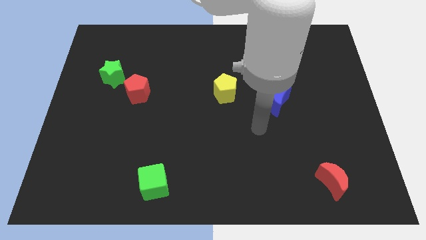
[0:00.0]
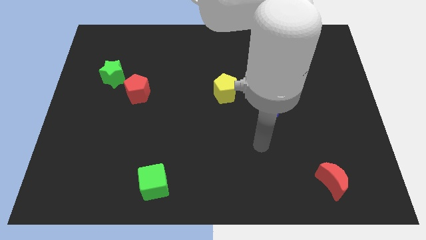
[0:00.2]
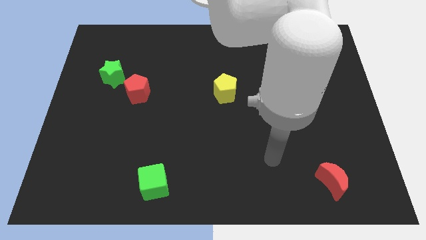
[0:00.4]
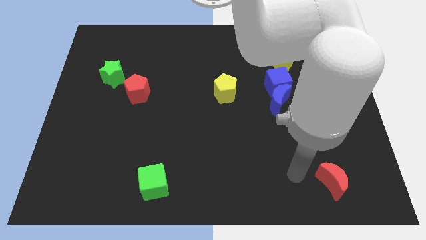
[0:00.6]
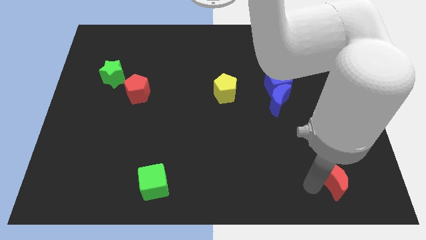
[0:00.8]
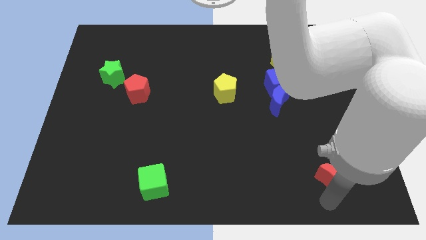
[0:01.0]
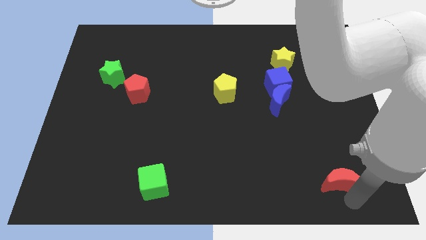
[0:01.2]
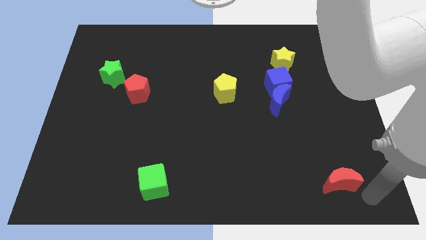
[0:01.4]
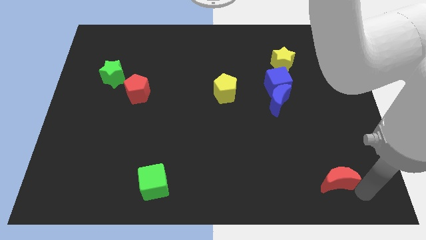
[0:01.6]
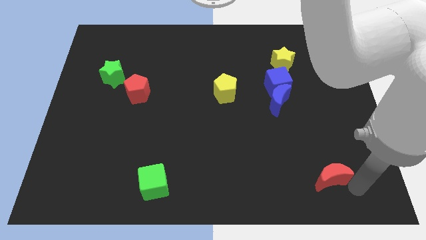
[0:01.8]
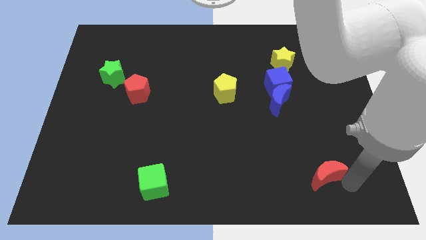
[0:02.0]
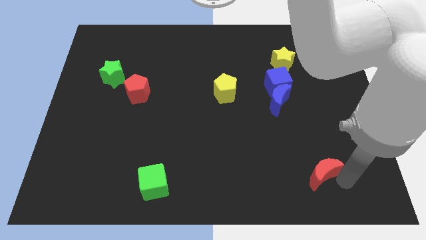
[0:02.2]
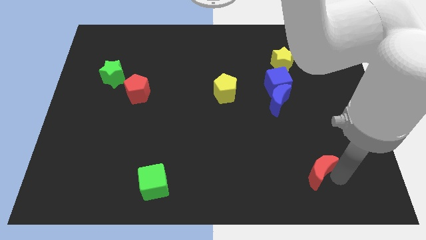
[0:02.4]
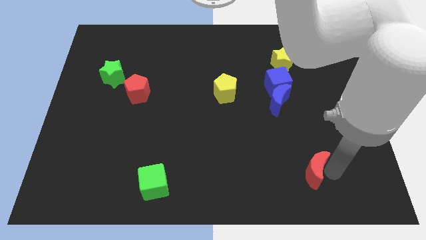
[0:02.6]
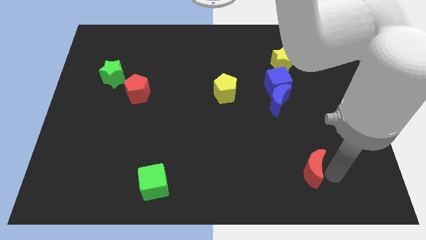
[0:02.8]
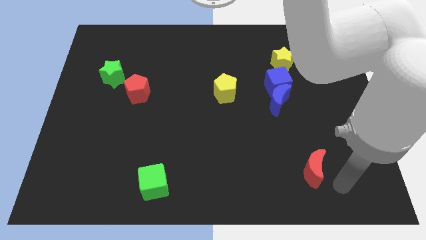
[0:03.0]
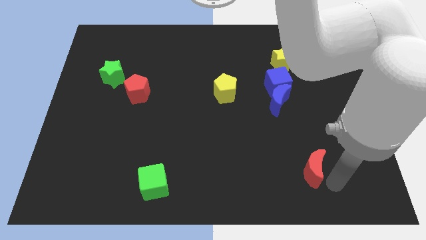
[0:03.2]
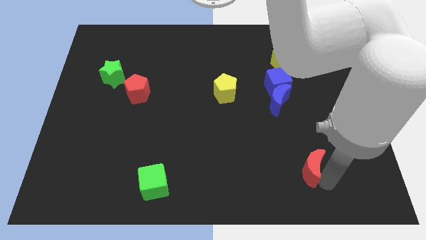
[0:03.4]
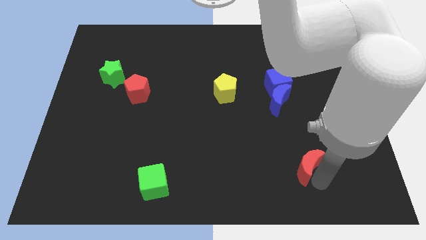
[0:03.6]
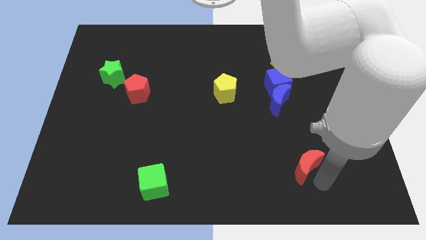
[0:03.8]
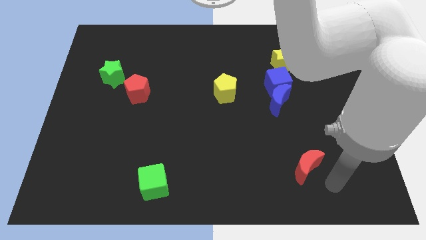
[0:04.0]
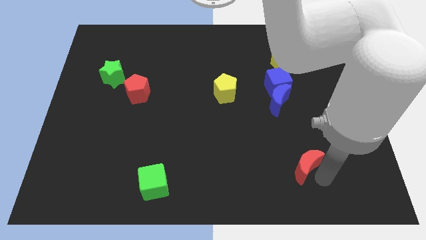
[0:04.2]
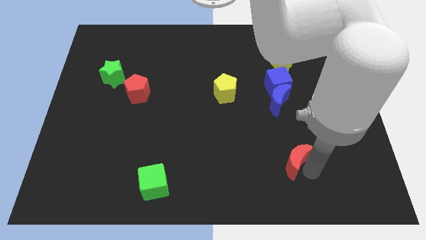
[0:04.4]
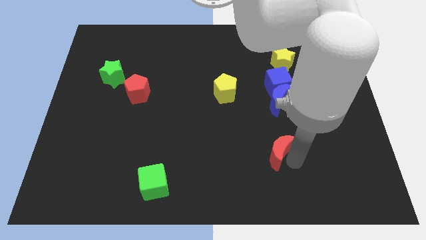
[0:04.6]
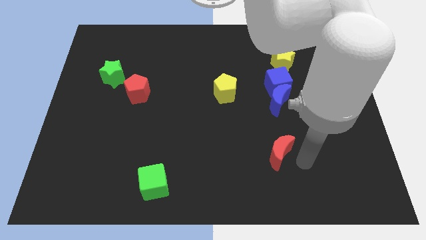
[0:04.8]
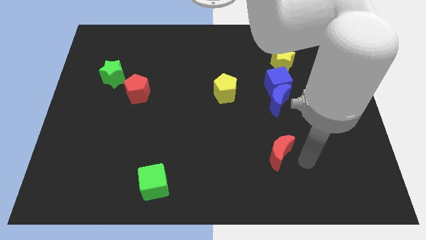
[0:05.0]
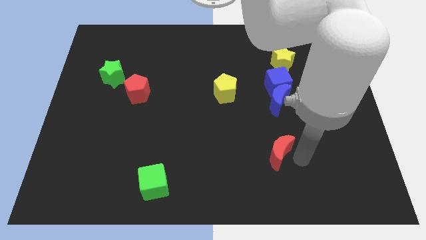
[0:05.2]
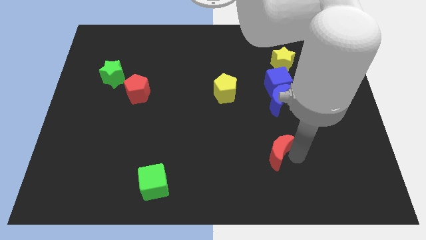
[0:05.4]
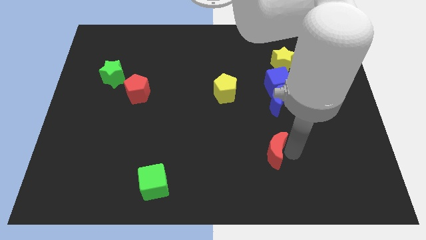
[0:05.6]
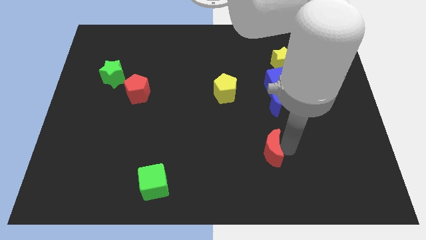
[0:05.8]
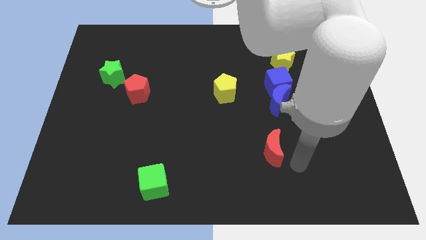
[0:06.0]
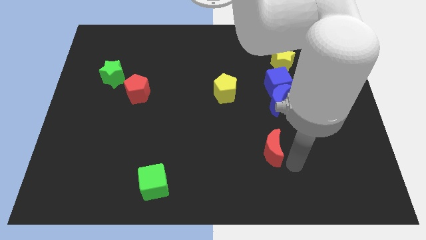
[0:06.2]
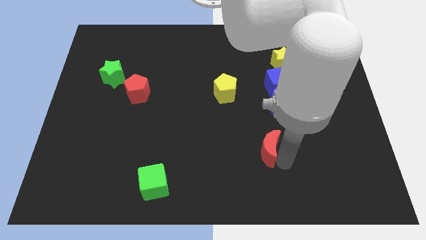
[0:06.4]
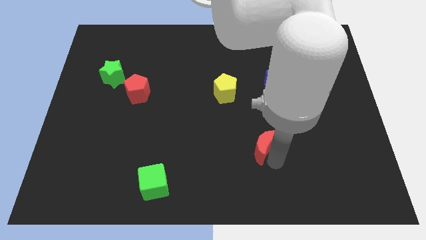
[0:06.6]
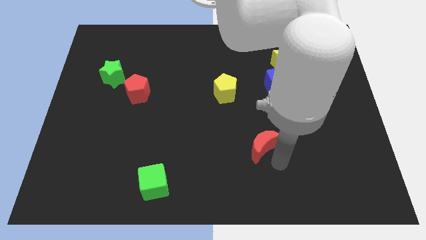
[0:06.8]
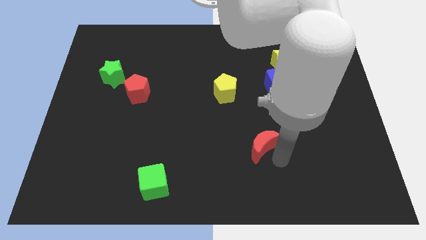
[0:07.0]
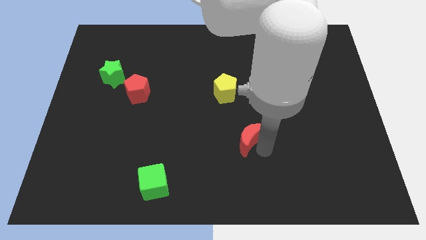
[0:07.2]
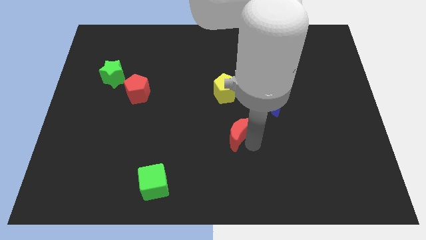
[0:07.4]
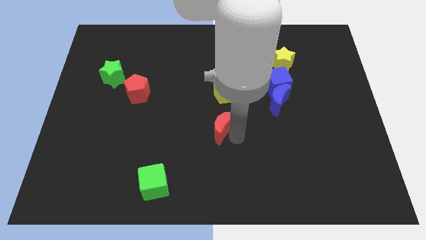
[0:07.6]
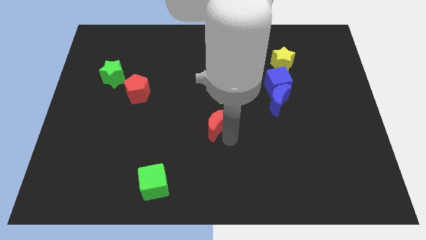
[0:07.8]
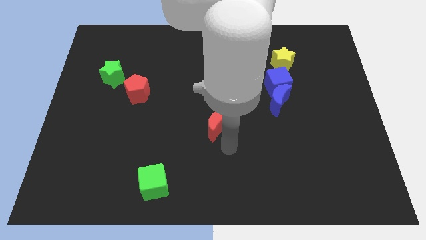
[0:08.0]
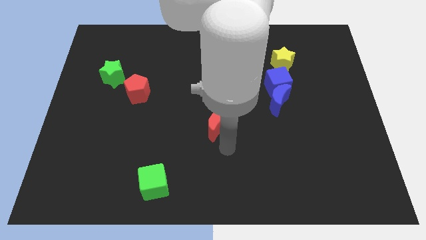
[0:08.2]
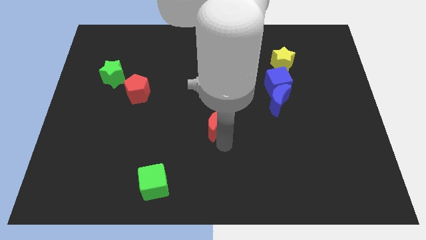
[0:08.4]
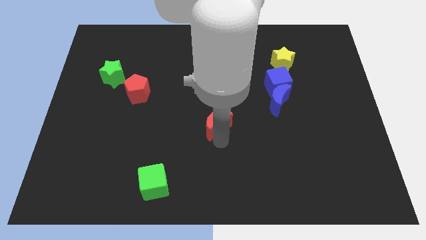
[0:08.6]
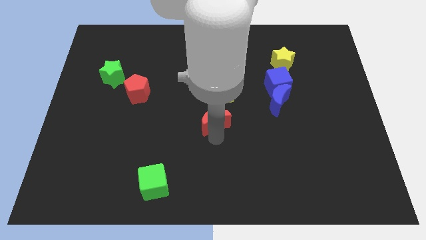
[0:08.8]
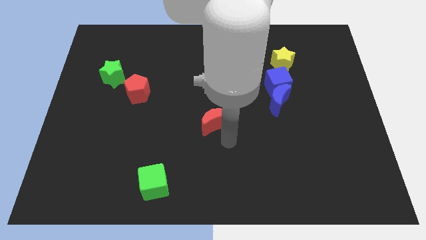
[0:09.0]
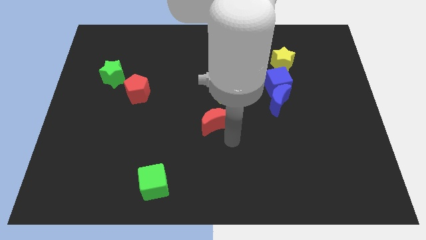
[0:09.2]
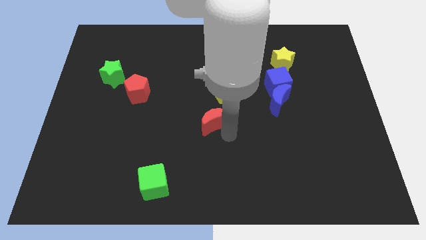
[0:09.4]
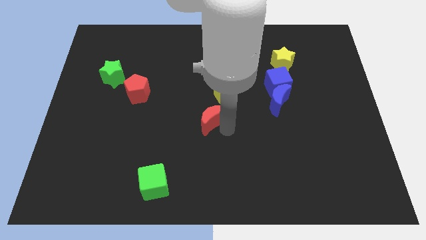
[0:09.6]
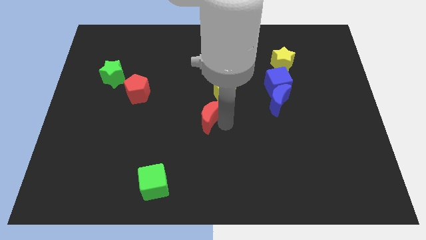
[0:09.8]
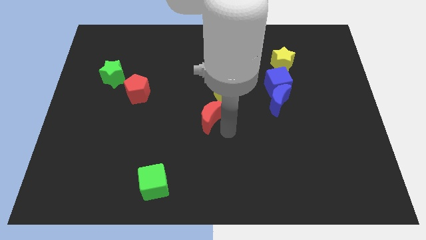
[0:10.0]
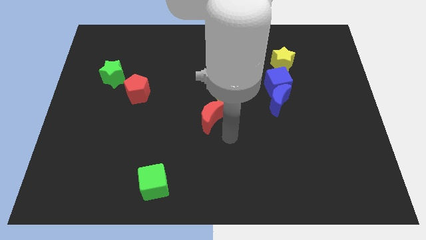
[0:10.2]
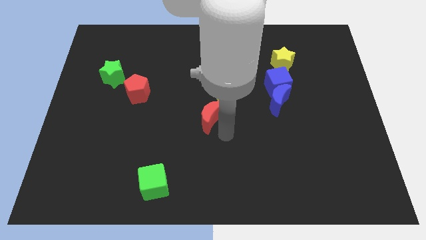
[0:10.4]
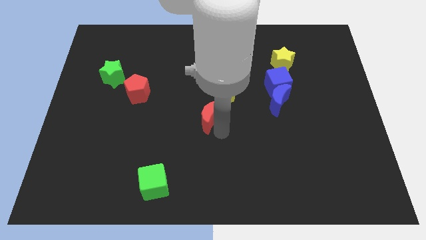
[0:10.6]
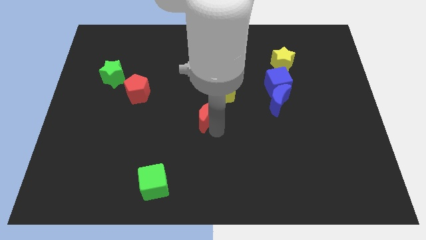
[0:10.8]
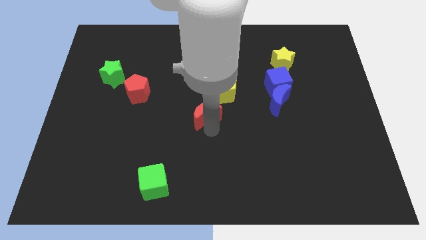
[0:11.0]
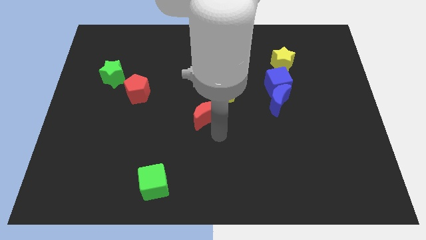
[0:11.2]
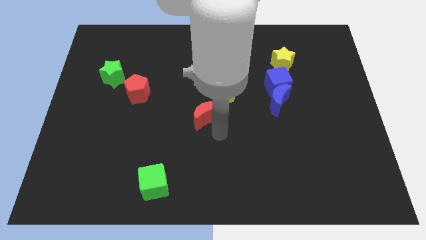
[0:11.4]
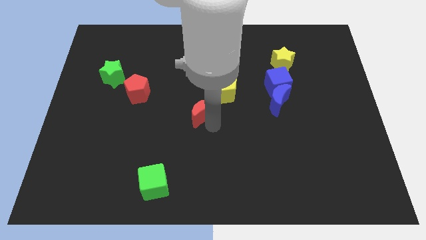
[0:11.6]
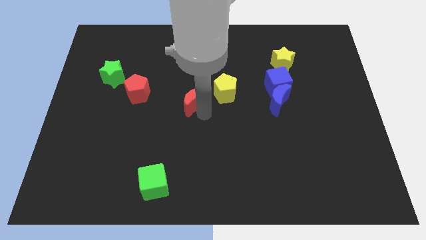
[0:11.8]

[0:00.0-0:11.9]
push the red moon to the right side of the red pentagon
